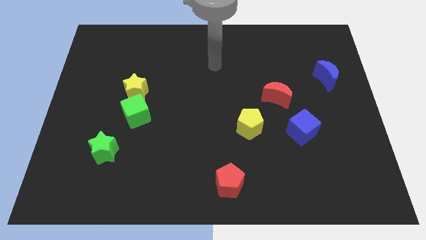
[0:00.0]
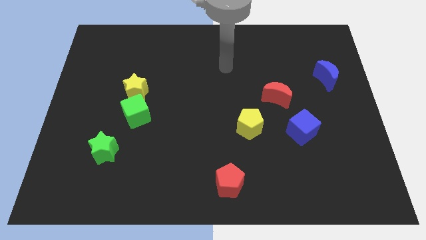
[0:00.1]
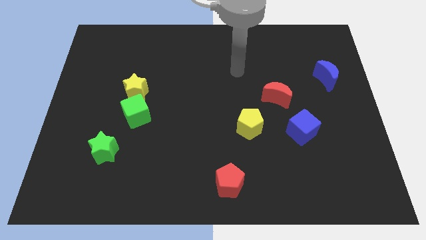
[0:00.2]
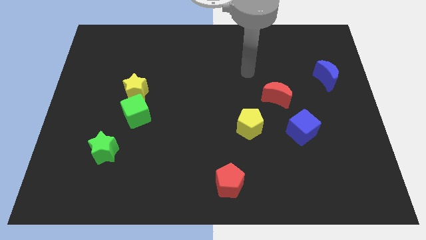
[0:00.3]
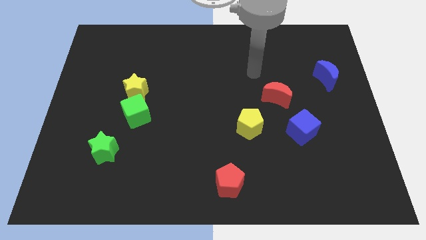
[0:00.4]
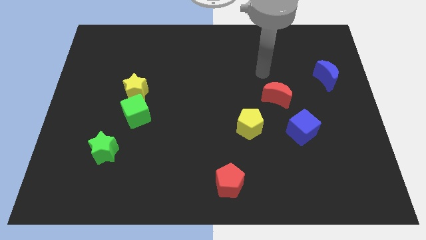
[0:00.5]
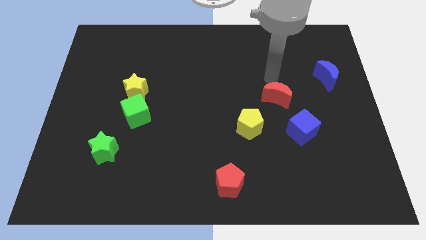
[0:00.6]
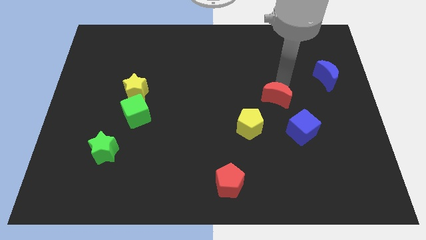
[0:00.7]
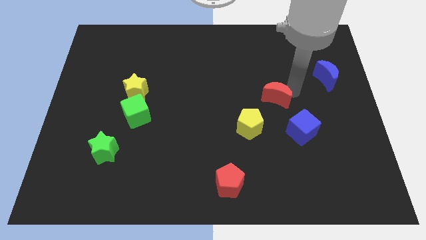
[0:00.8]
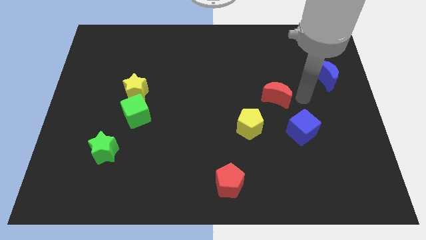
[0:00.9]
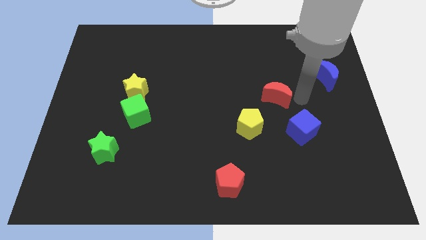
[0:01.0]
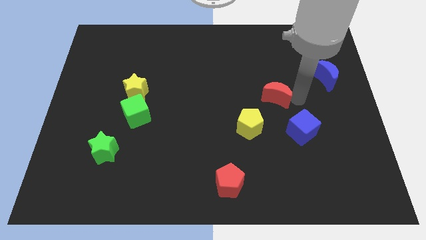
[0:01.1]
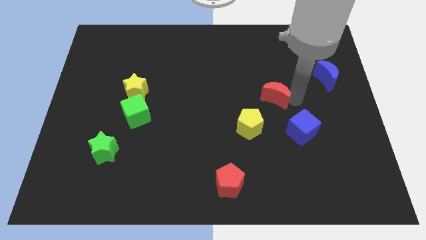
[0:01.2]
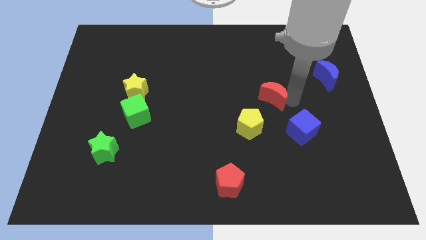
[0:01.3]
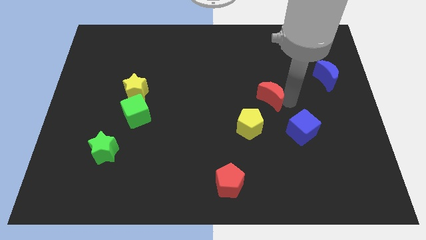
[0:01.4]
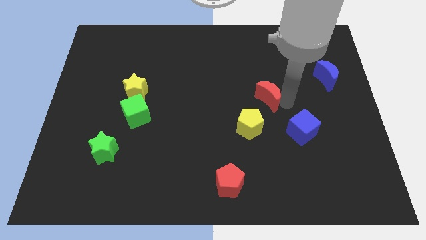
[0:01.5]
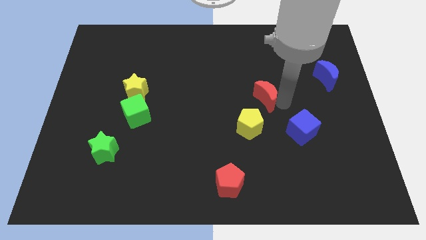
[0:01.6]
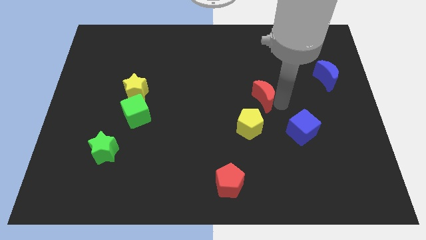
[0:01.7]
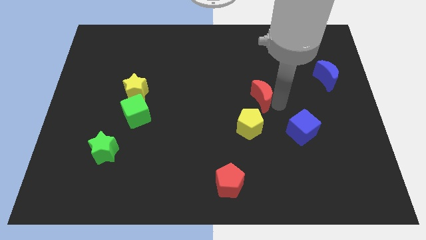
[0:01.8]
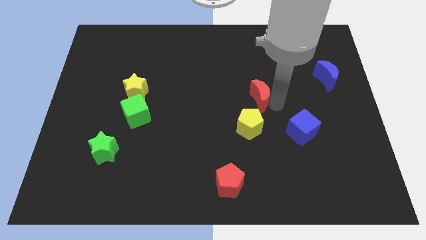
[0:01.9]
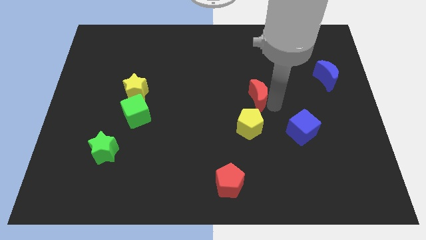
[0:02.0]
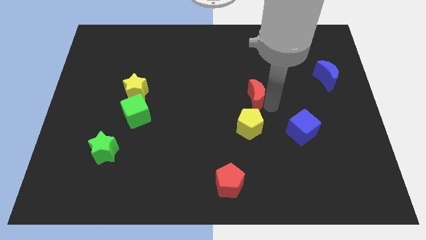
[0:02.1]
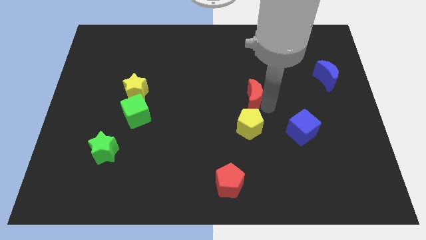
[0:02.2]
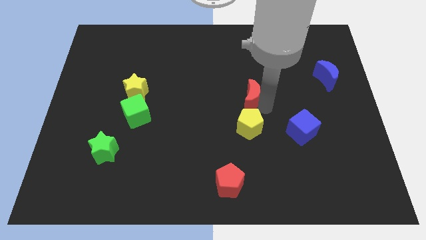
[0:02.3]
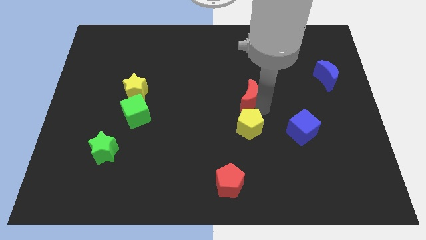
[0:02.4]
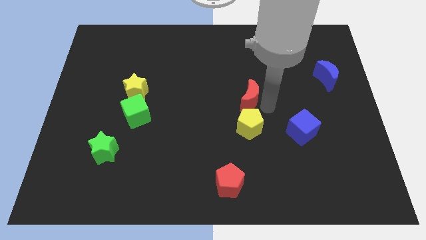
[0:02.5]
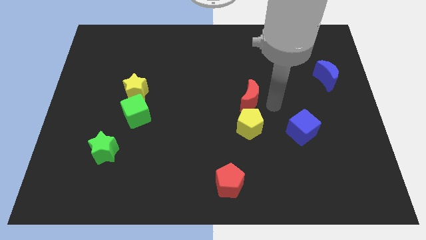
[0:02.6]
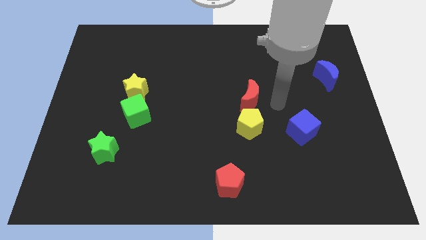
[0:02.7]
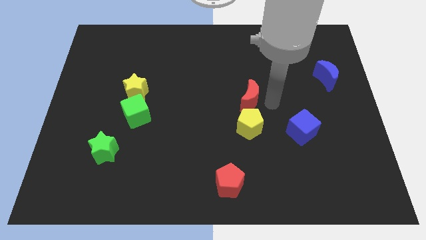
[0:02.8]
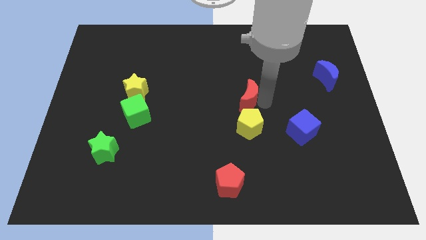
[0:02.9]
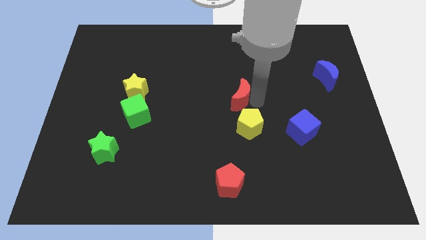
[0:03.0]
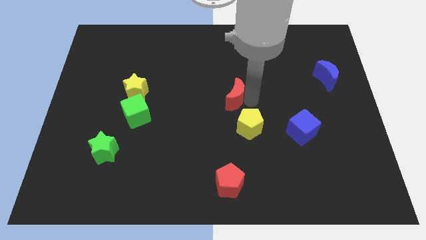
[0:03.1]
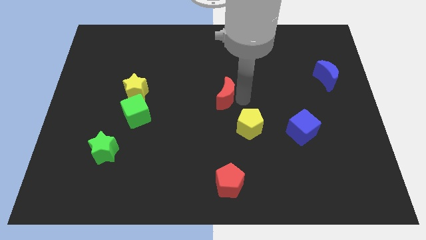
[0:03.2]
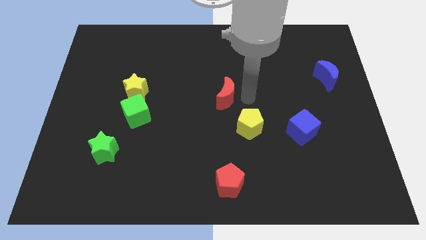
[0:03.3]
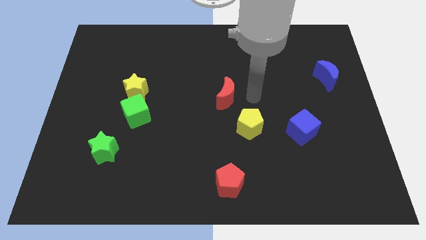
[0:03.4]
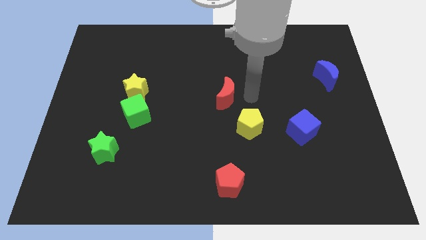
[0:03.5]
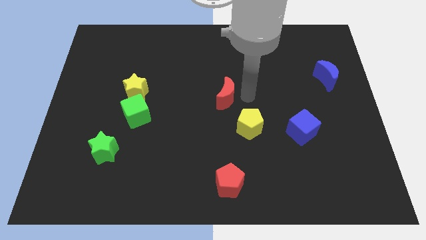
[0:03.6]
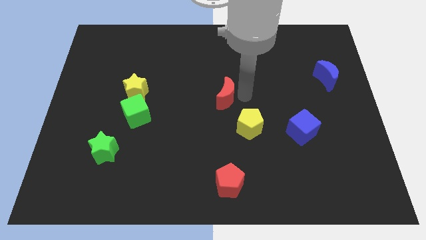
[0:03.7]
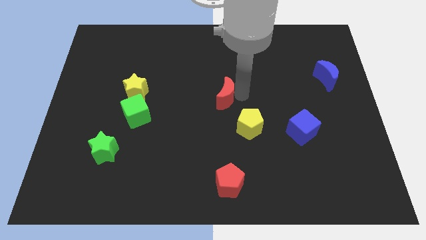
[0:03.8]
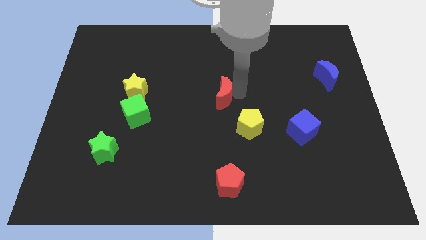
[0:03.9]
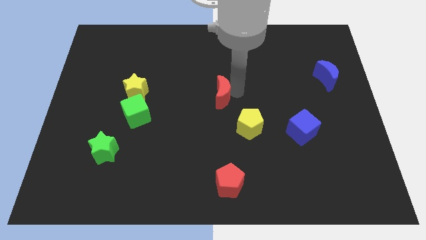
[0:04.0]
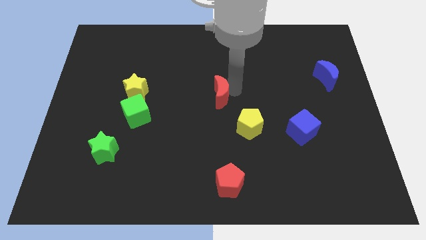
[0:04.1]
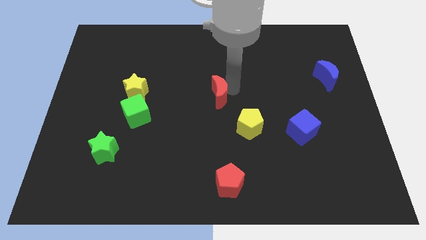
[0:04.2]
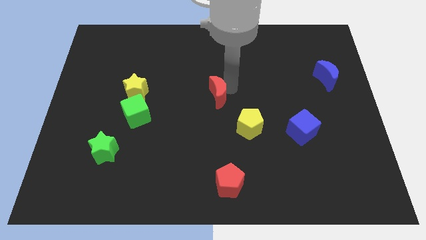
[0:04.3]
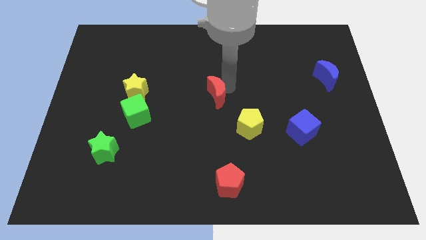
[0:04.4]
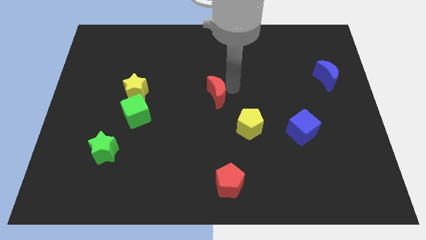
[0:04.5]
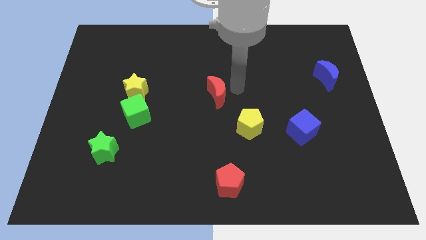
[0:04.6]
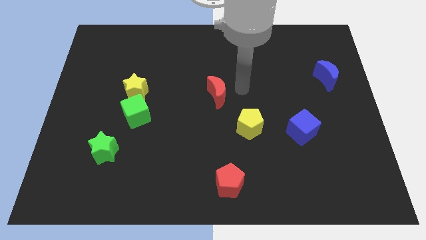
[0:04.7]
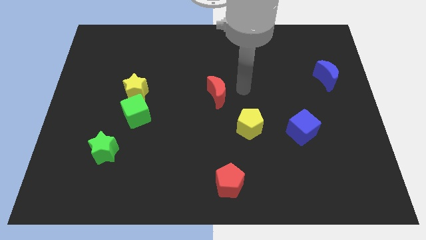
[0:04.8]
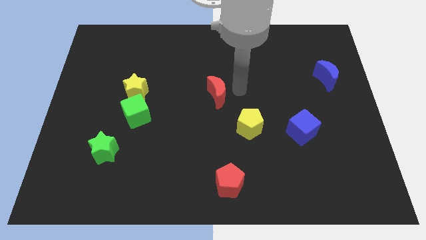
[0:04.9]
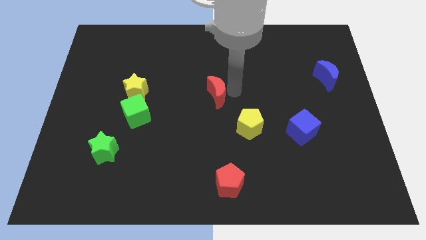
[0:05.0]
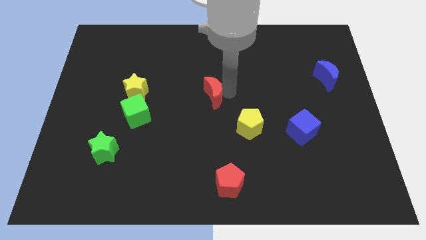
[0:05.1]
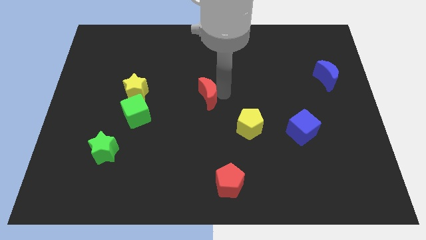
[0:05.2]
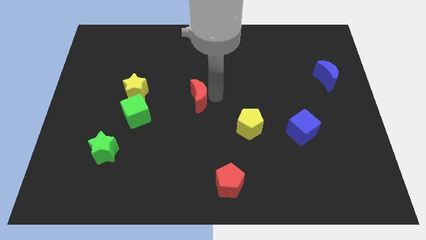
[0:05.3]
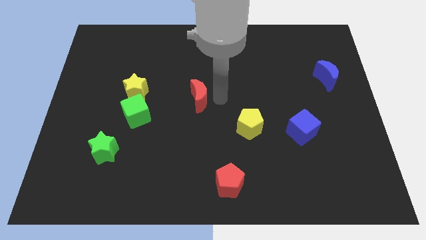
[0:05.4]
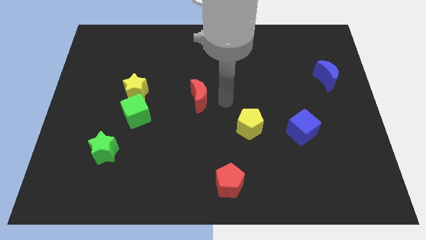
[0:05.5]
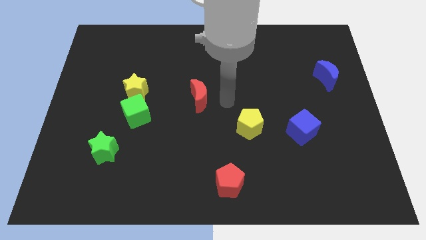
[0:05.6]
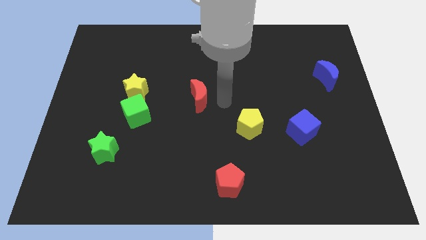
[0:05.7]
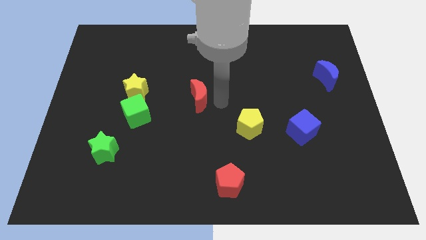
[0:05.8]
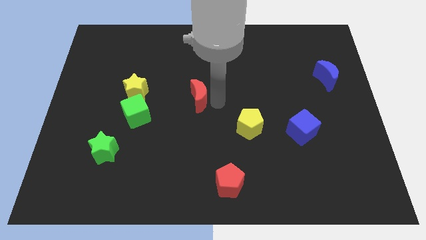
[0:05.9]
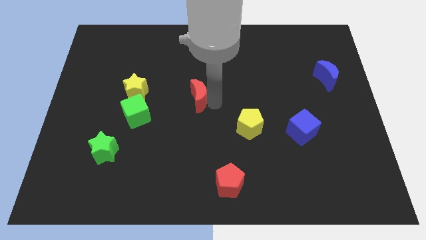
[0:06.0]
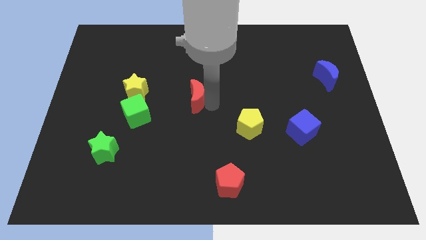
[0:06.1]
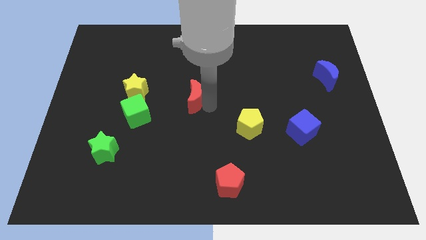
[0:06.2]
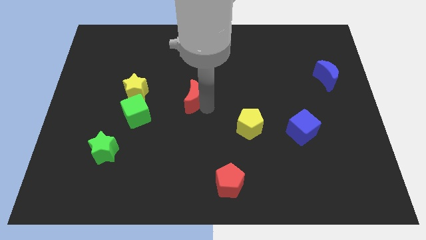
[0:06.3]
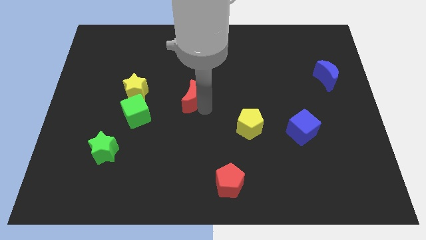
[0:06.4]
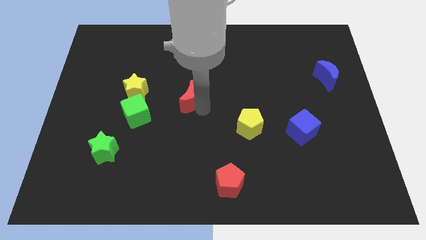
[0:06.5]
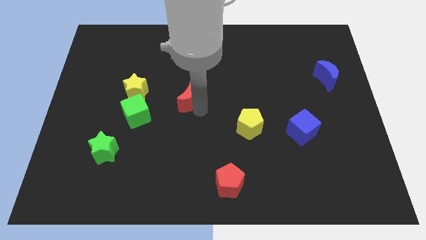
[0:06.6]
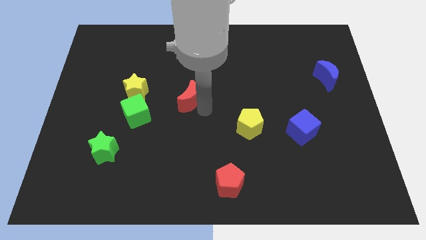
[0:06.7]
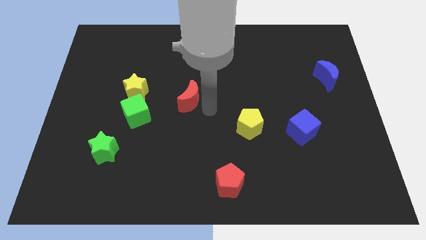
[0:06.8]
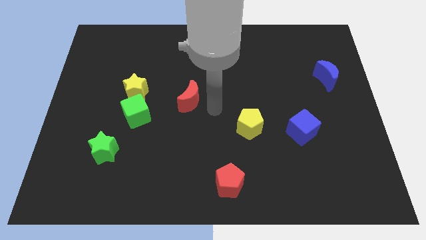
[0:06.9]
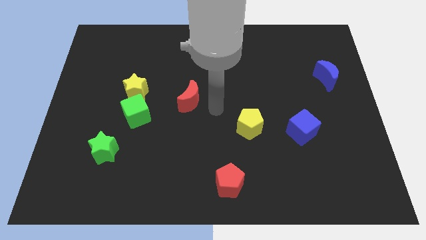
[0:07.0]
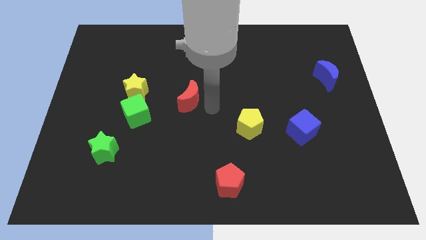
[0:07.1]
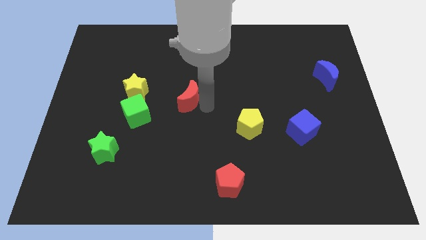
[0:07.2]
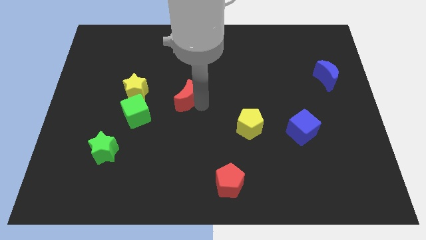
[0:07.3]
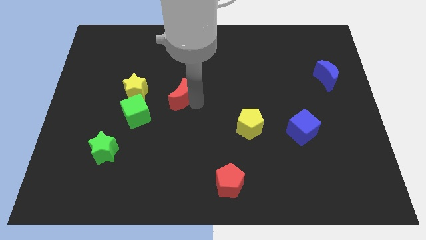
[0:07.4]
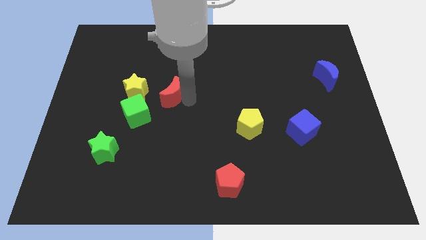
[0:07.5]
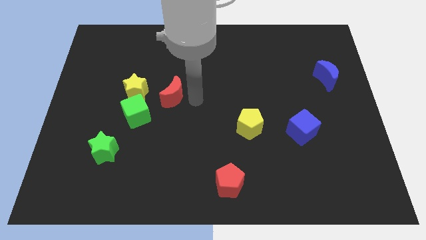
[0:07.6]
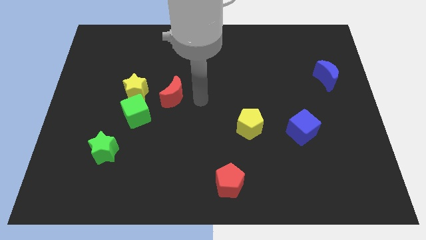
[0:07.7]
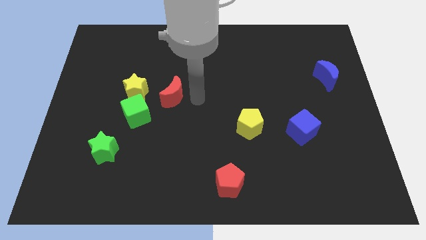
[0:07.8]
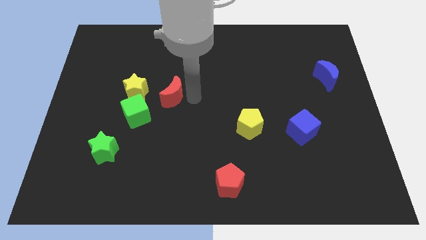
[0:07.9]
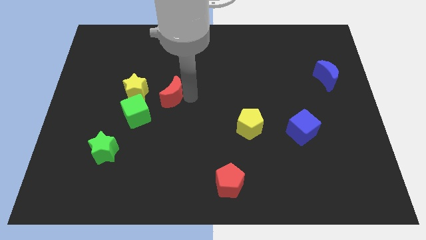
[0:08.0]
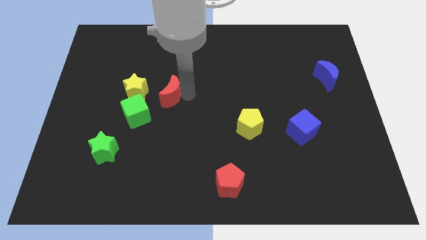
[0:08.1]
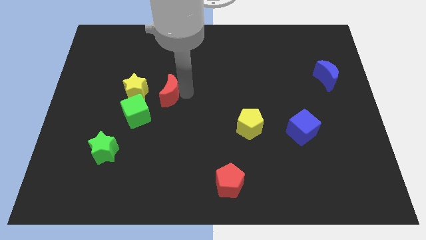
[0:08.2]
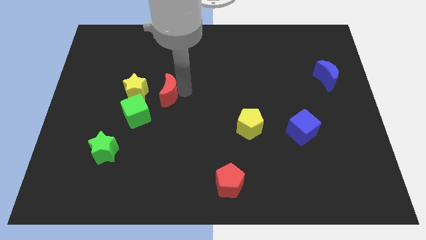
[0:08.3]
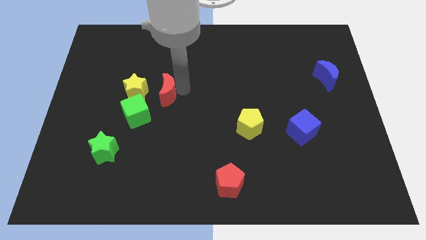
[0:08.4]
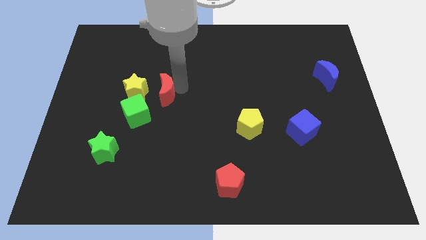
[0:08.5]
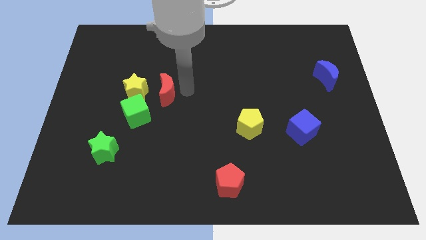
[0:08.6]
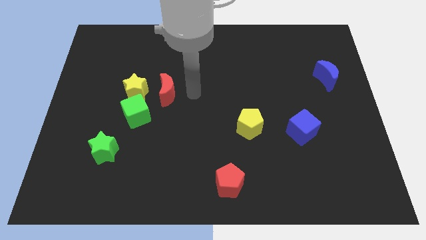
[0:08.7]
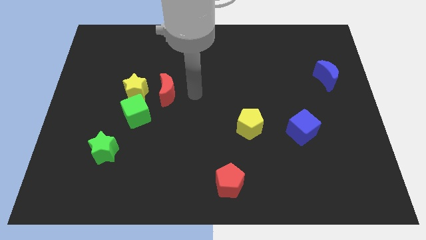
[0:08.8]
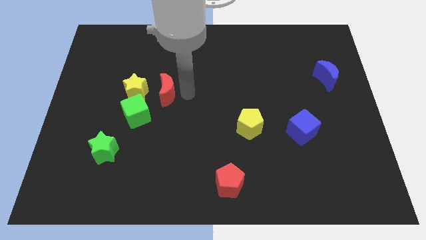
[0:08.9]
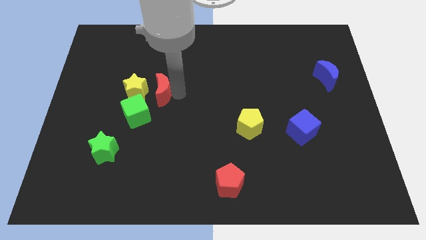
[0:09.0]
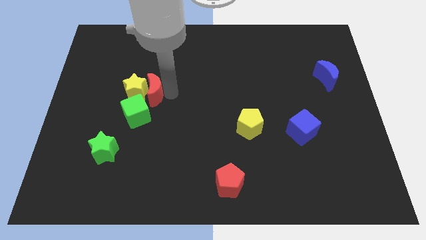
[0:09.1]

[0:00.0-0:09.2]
push the red moon towards the yellow star
